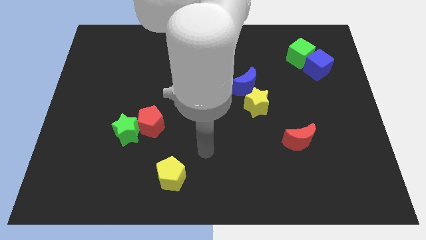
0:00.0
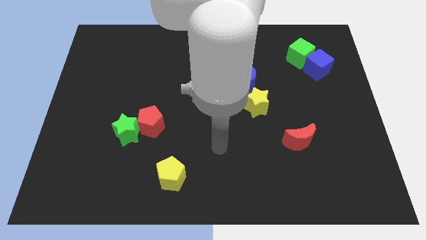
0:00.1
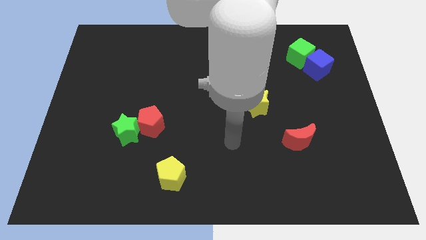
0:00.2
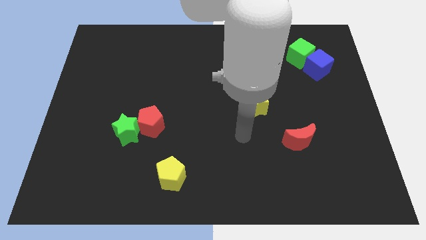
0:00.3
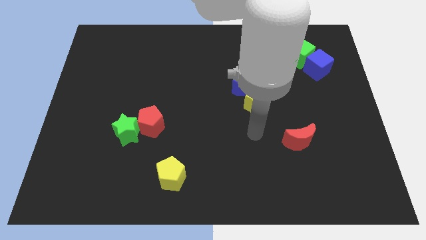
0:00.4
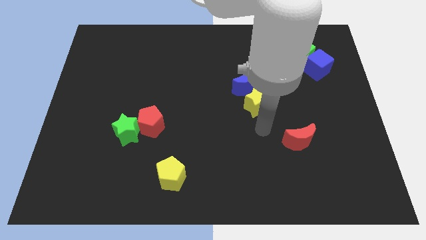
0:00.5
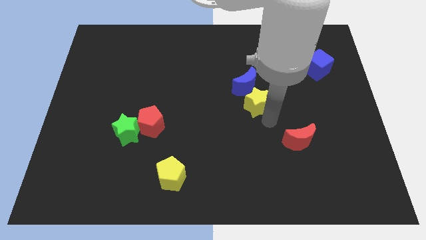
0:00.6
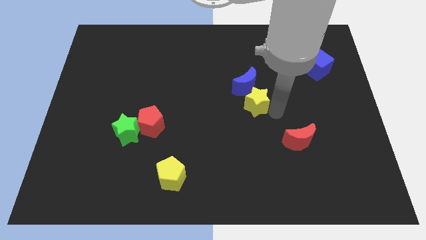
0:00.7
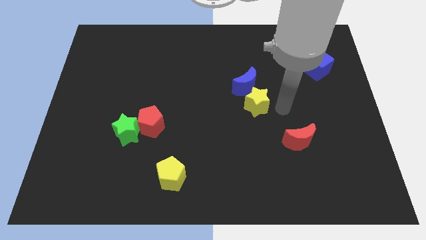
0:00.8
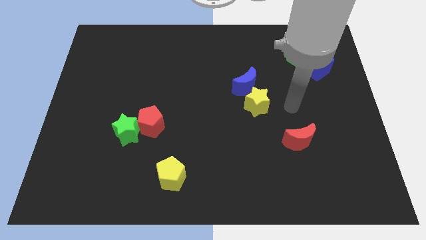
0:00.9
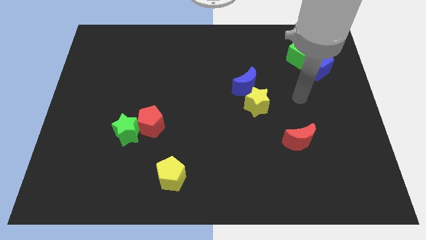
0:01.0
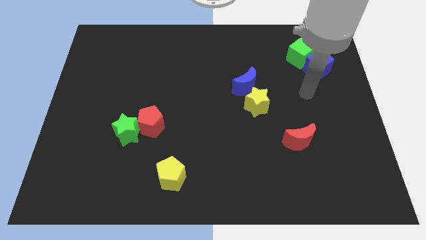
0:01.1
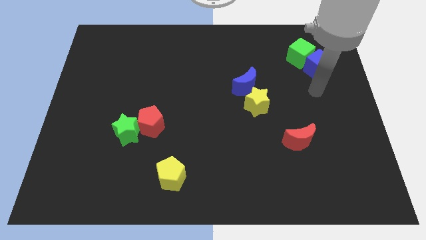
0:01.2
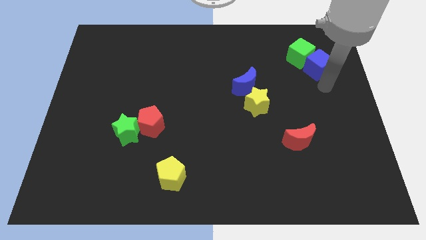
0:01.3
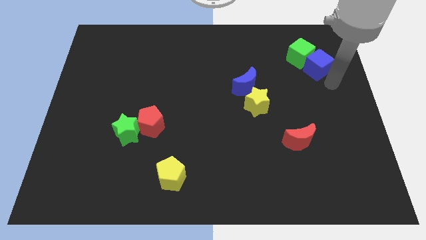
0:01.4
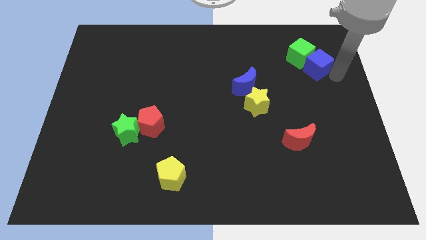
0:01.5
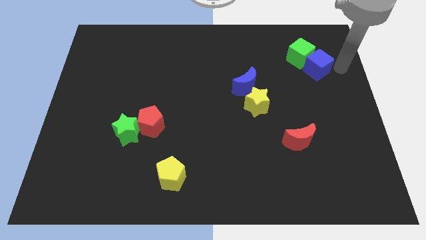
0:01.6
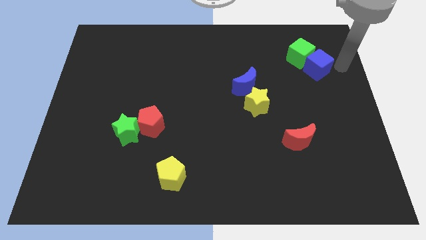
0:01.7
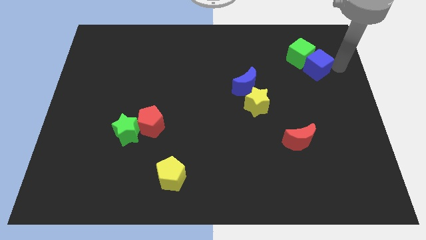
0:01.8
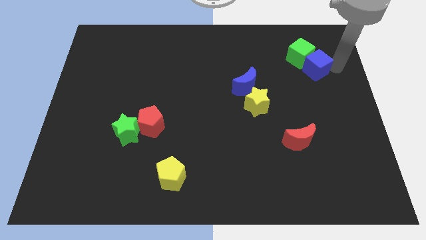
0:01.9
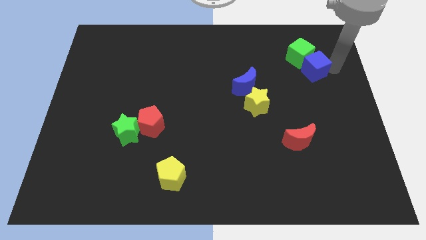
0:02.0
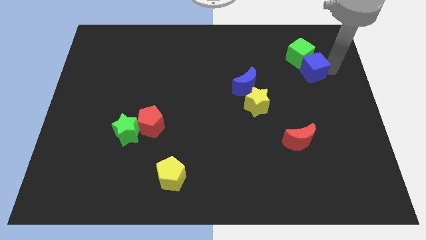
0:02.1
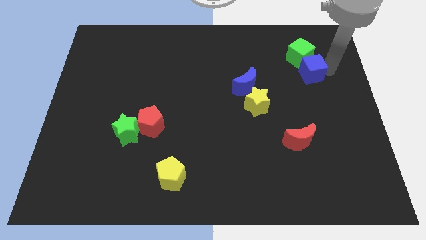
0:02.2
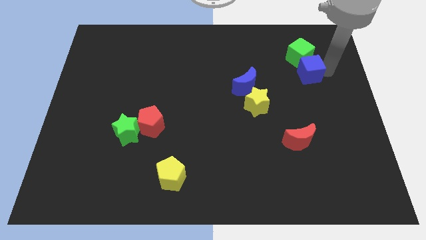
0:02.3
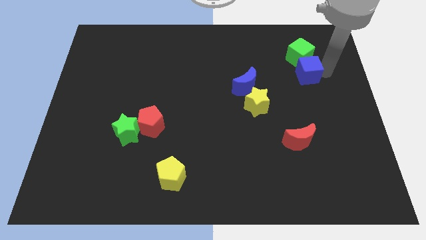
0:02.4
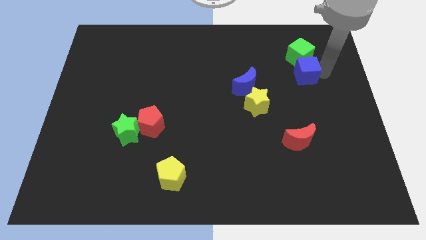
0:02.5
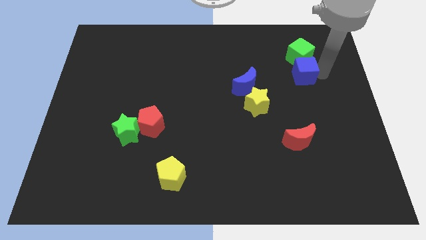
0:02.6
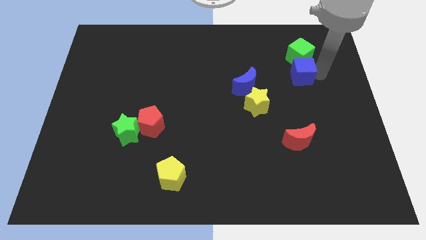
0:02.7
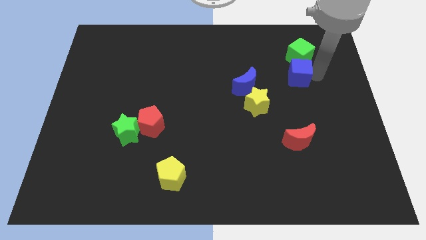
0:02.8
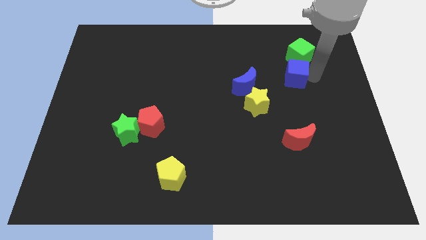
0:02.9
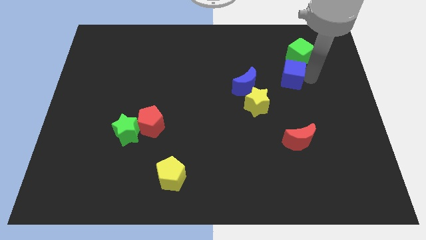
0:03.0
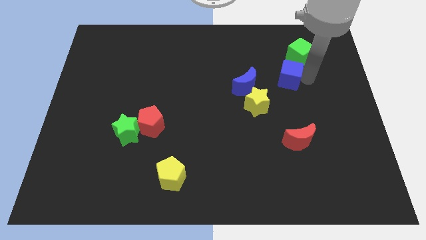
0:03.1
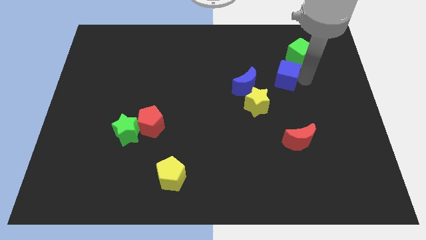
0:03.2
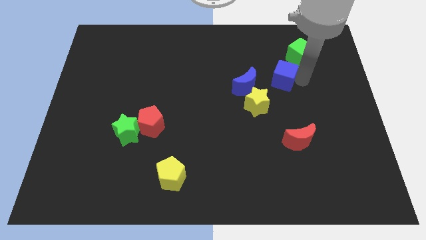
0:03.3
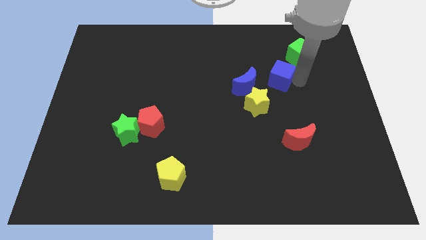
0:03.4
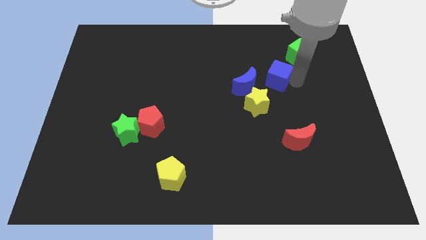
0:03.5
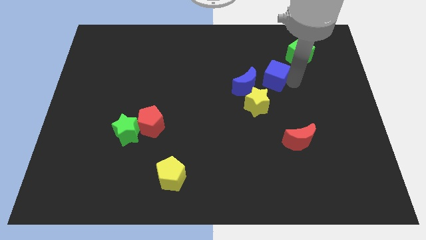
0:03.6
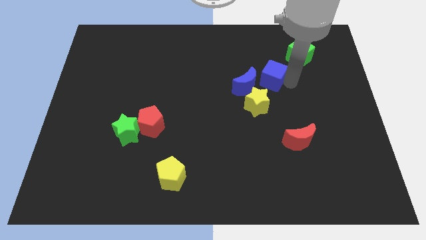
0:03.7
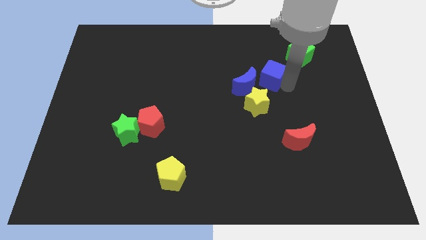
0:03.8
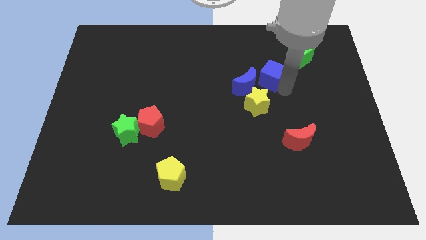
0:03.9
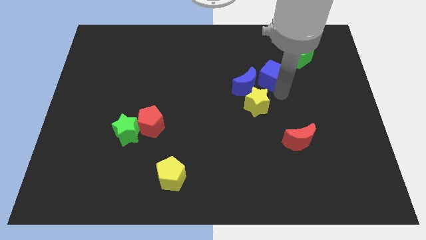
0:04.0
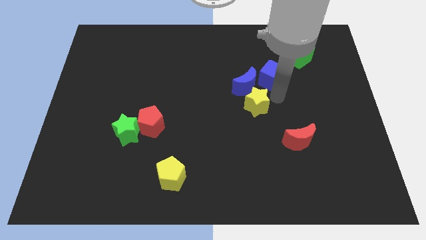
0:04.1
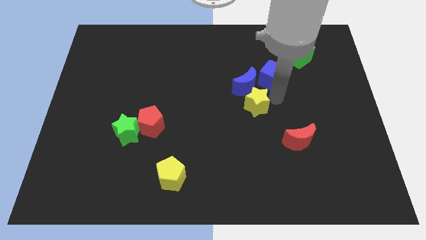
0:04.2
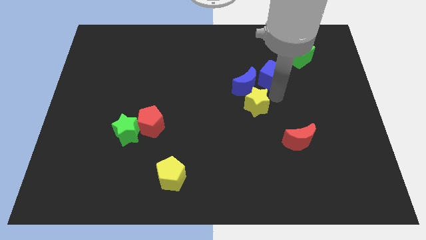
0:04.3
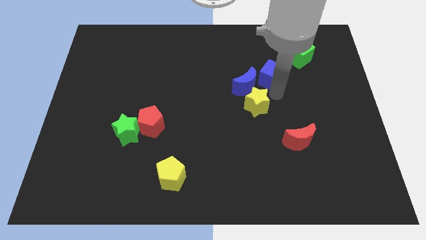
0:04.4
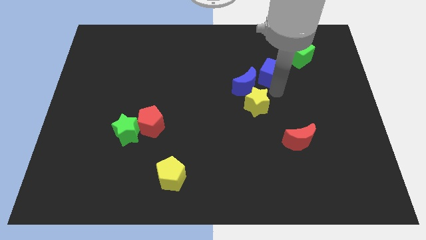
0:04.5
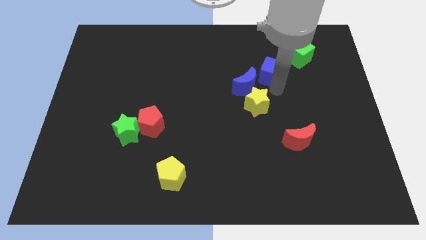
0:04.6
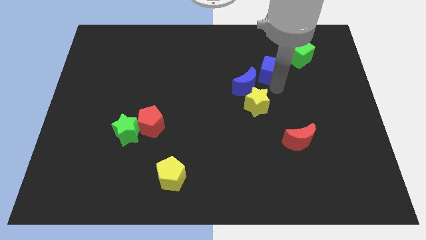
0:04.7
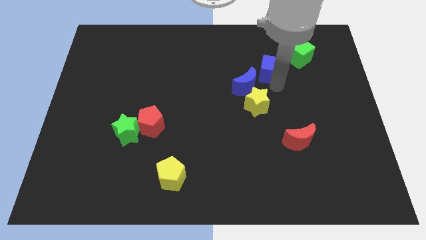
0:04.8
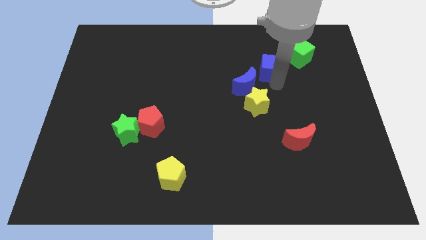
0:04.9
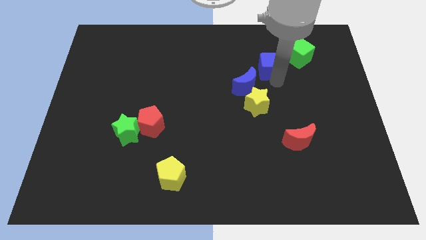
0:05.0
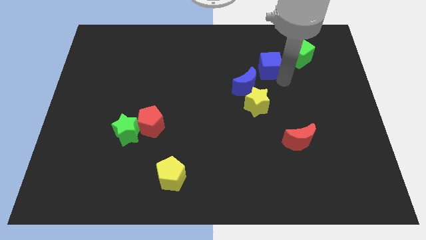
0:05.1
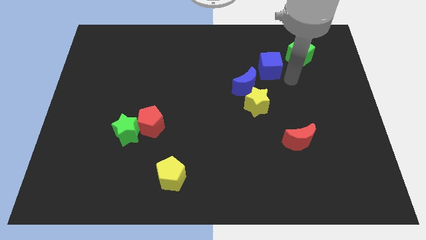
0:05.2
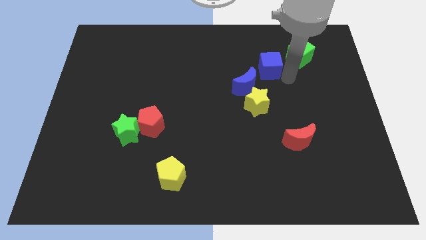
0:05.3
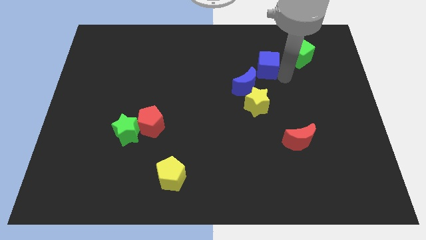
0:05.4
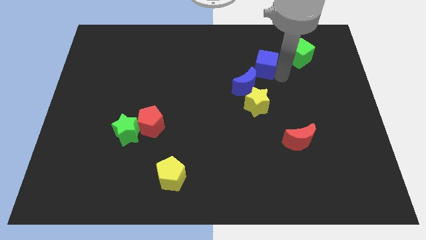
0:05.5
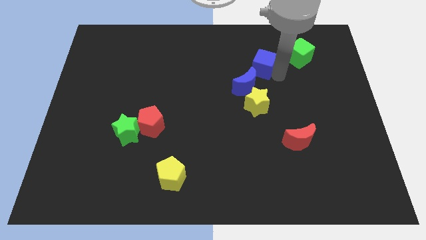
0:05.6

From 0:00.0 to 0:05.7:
move the blue cube above the blue moon

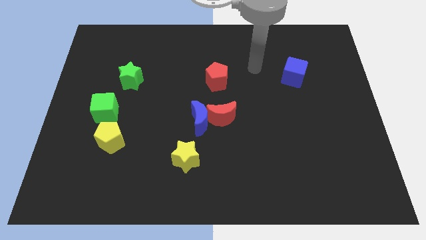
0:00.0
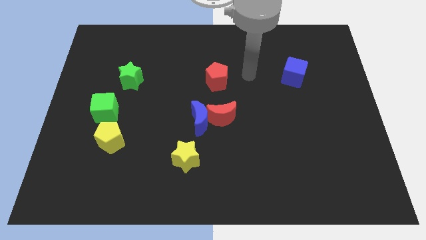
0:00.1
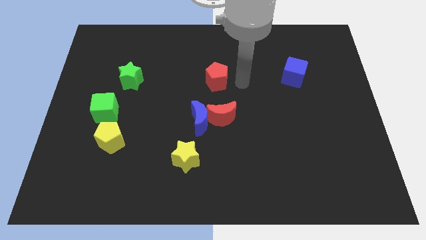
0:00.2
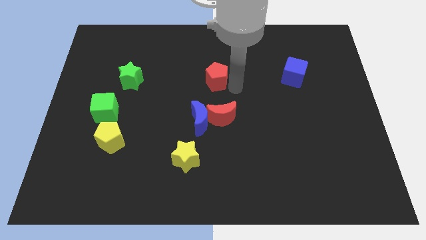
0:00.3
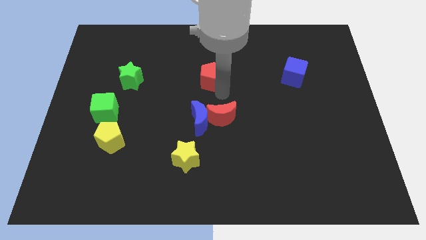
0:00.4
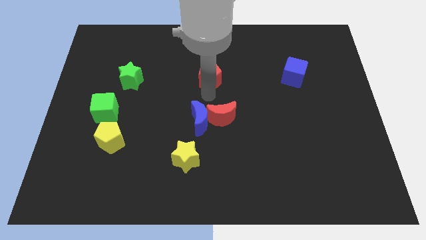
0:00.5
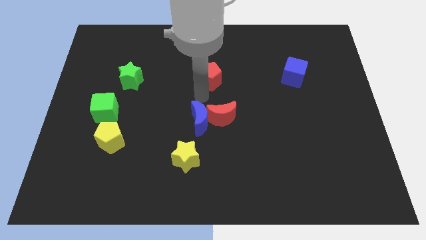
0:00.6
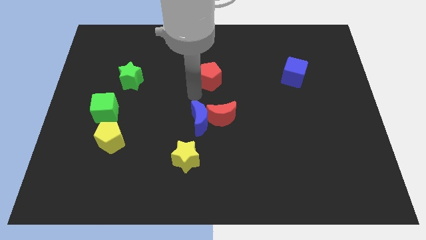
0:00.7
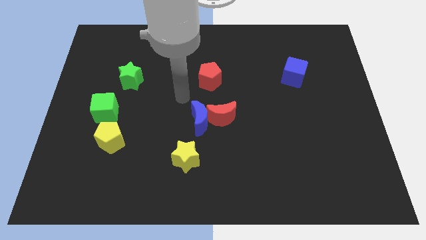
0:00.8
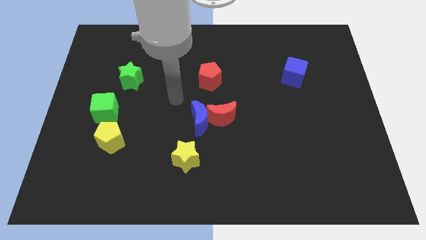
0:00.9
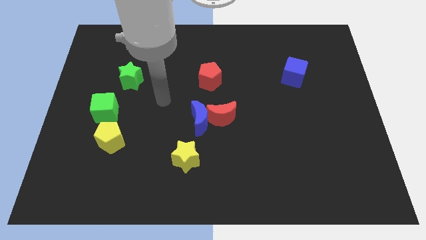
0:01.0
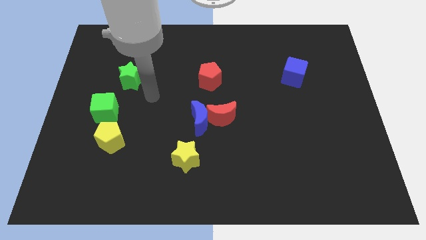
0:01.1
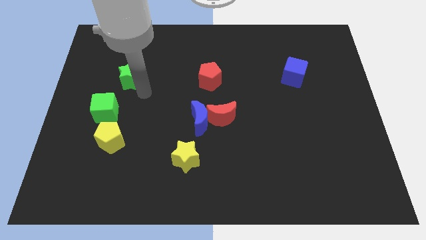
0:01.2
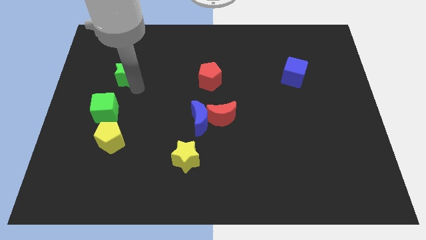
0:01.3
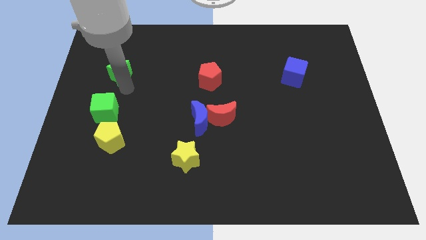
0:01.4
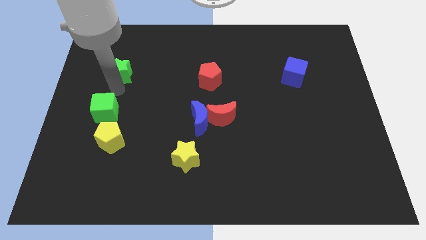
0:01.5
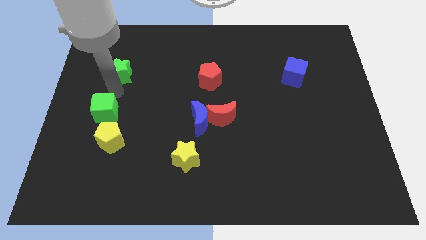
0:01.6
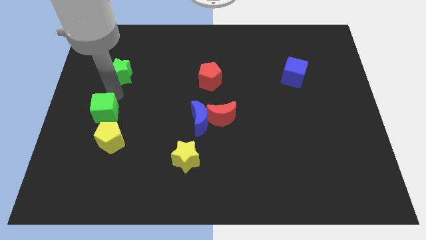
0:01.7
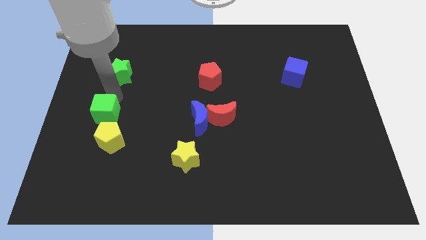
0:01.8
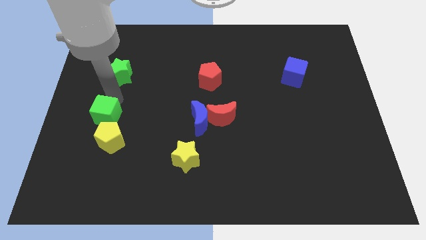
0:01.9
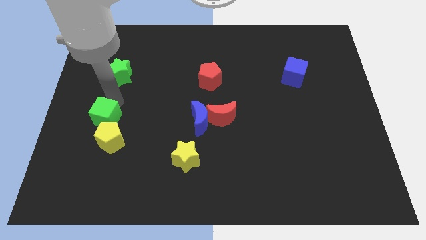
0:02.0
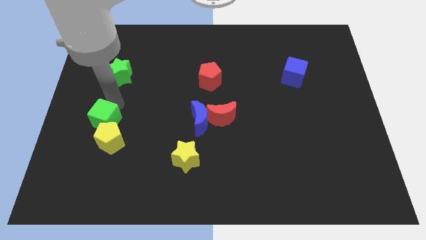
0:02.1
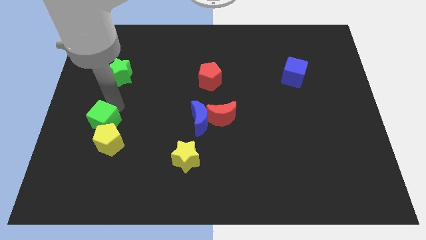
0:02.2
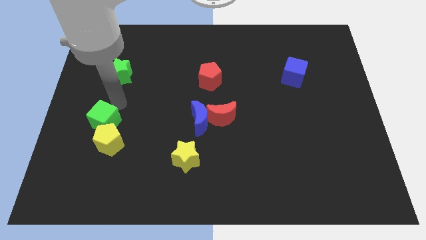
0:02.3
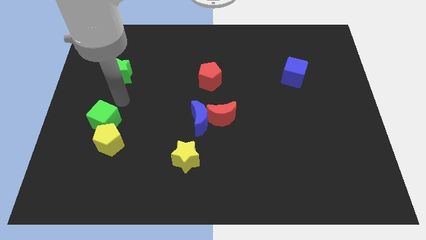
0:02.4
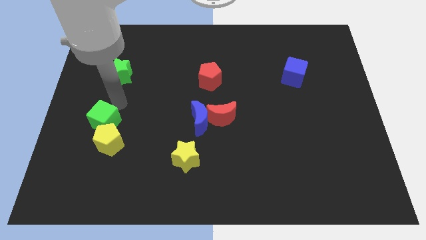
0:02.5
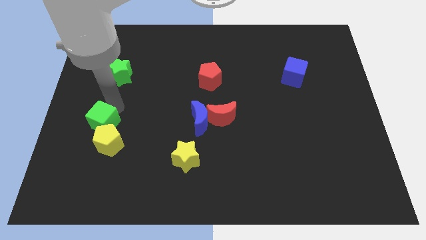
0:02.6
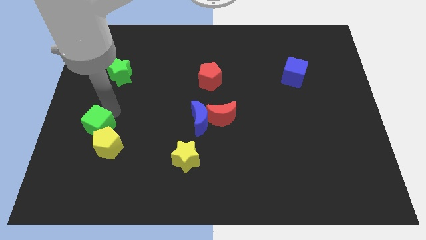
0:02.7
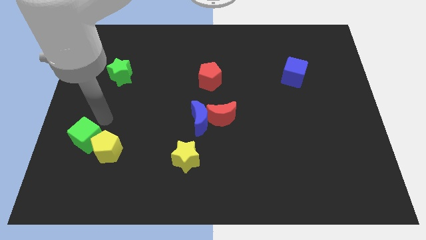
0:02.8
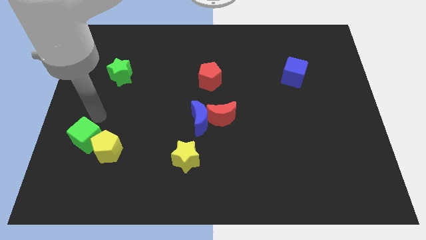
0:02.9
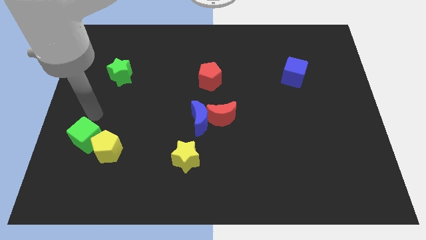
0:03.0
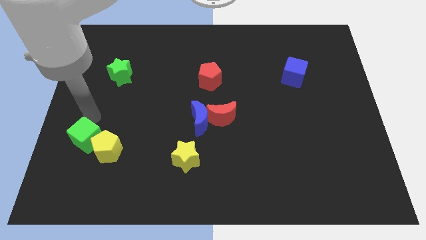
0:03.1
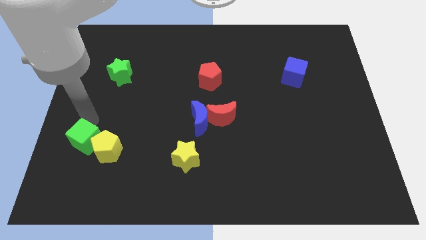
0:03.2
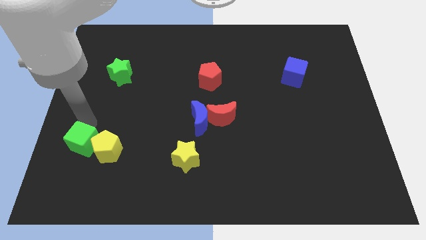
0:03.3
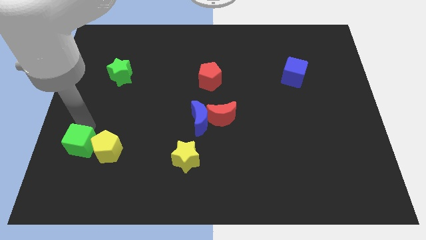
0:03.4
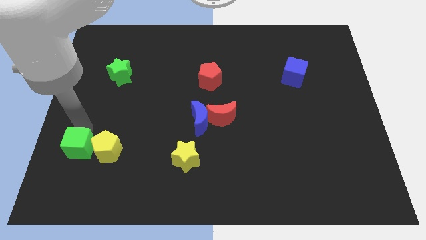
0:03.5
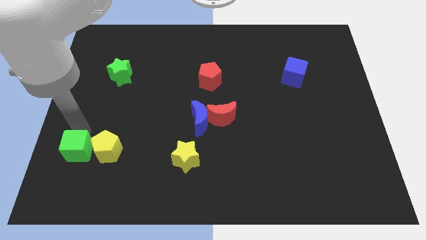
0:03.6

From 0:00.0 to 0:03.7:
put the green cube to the bottom left side of the yellow pentagon
